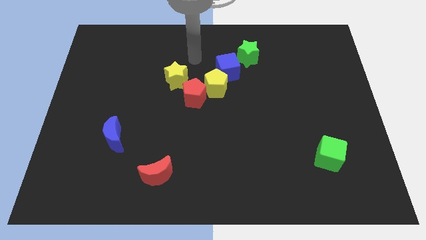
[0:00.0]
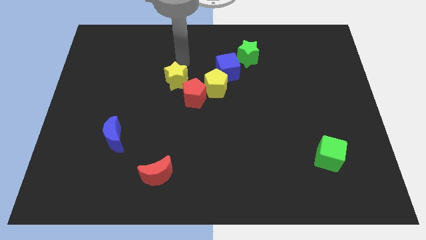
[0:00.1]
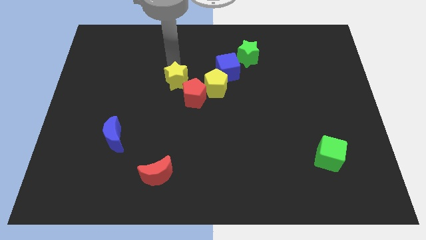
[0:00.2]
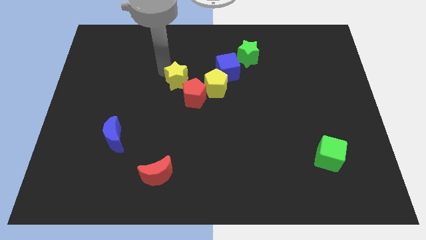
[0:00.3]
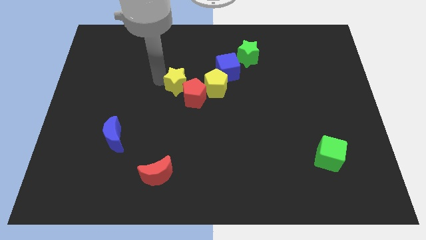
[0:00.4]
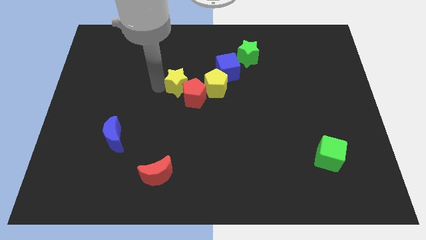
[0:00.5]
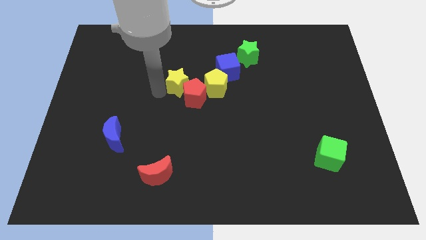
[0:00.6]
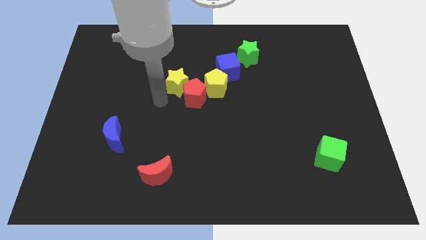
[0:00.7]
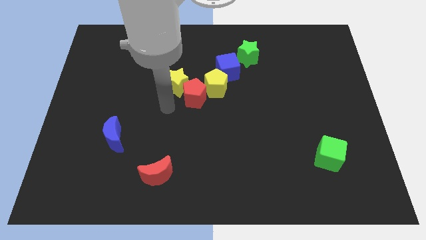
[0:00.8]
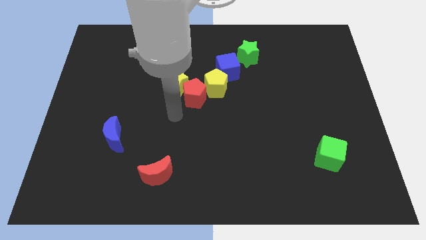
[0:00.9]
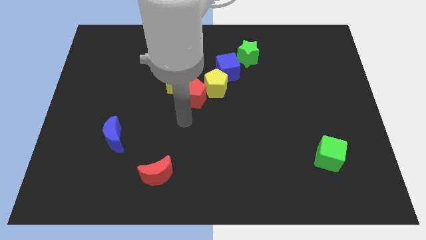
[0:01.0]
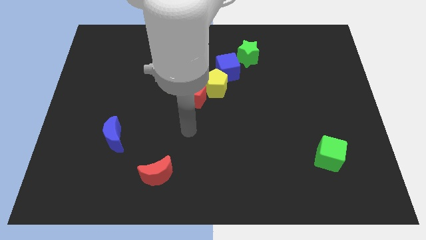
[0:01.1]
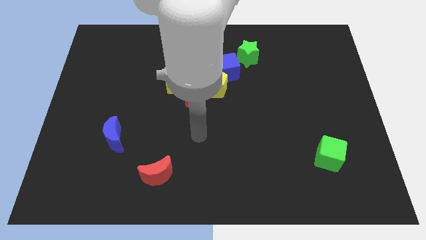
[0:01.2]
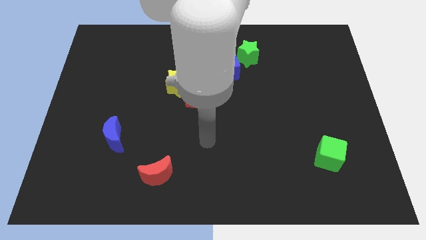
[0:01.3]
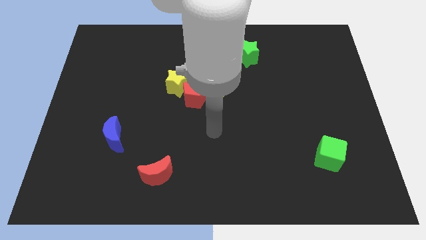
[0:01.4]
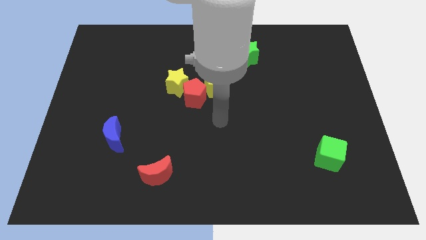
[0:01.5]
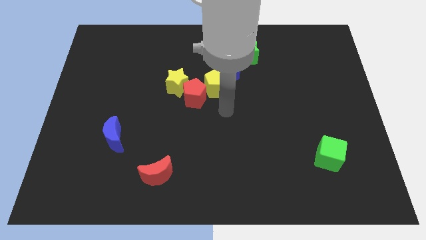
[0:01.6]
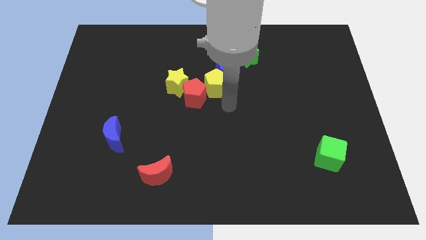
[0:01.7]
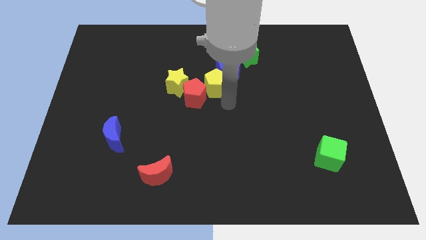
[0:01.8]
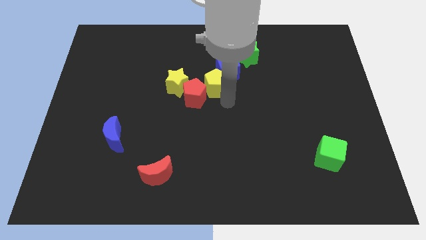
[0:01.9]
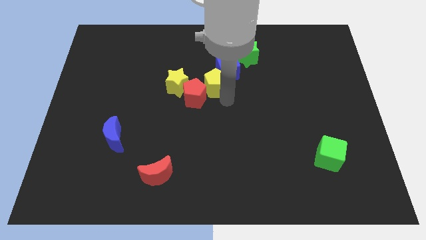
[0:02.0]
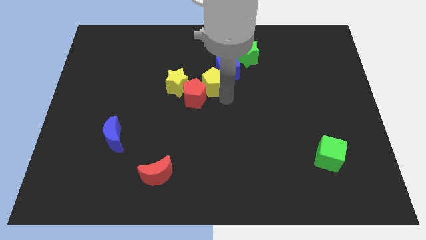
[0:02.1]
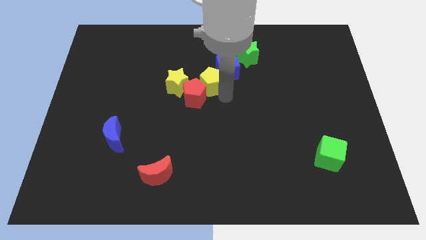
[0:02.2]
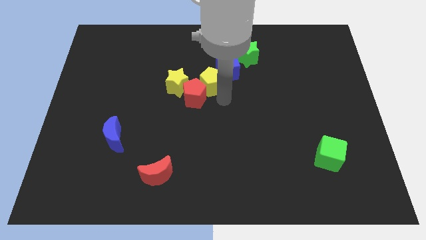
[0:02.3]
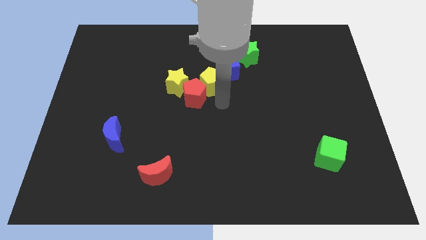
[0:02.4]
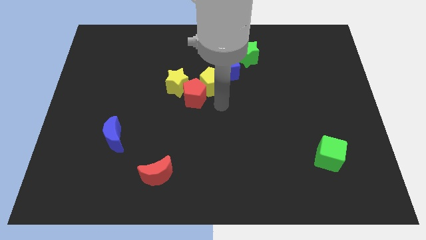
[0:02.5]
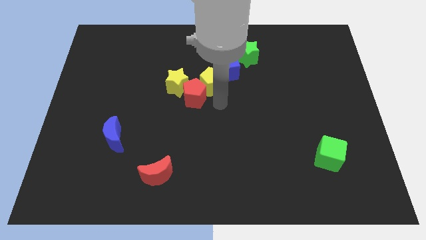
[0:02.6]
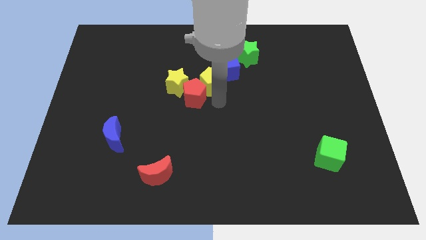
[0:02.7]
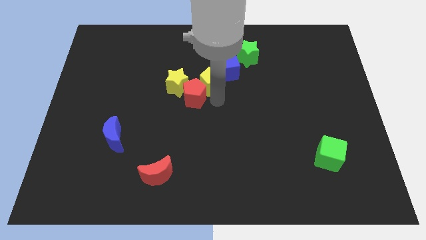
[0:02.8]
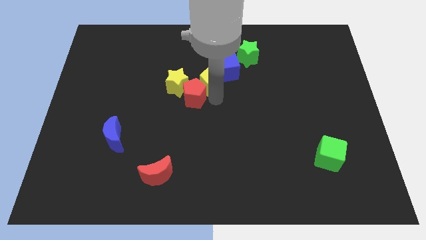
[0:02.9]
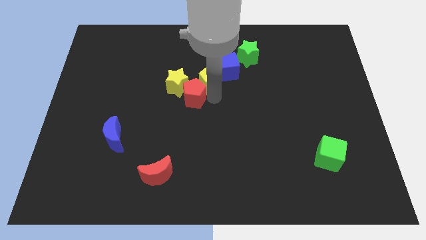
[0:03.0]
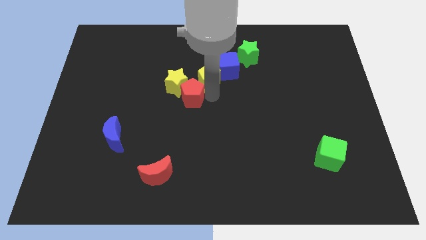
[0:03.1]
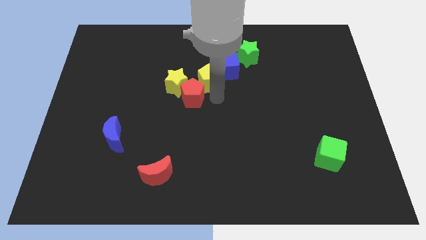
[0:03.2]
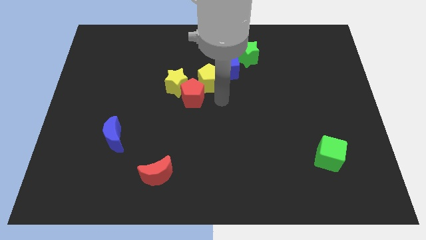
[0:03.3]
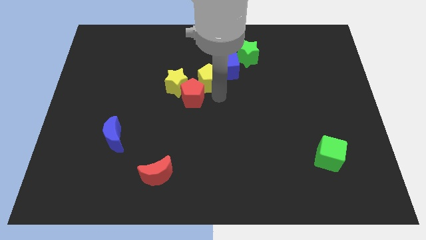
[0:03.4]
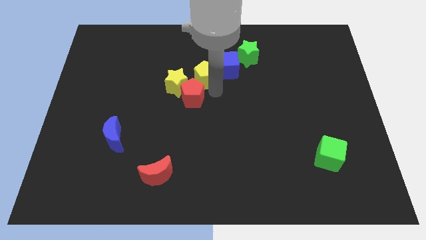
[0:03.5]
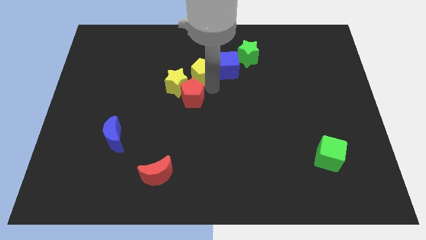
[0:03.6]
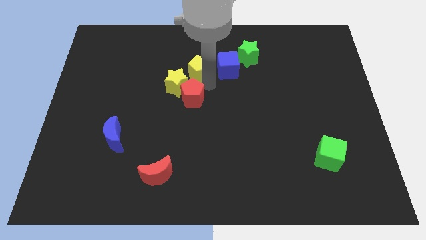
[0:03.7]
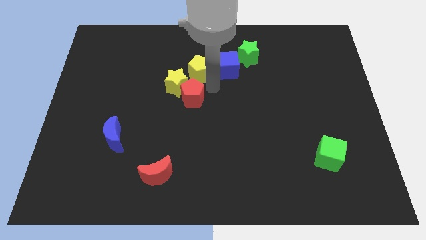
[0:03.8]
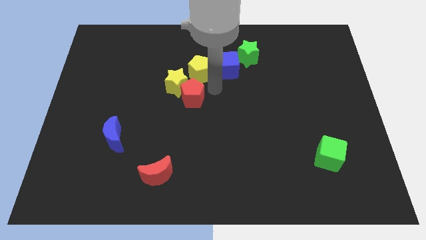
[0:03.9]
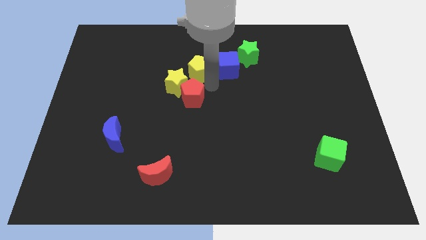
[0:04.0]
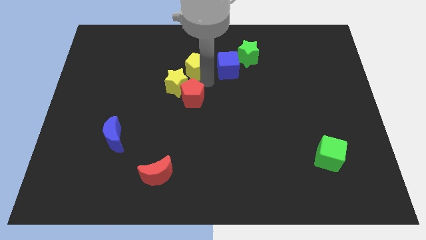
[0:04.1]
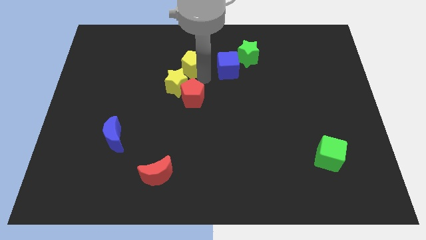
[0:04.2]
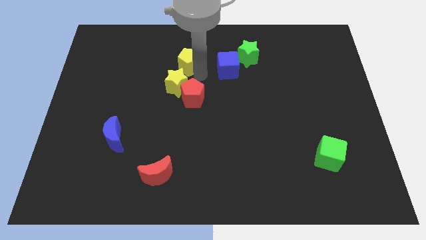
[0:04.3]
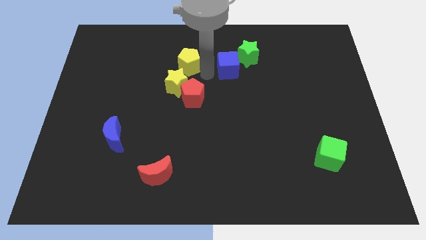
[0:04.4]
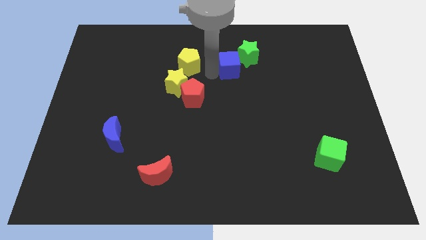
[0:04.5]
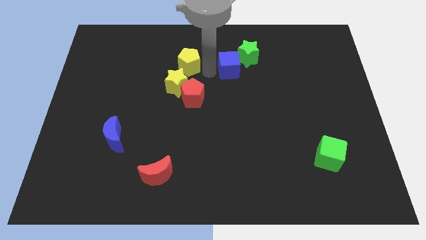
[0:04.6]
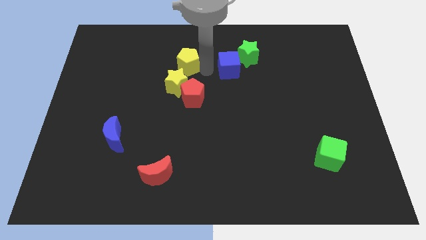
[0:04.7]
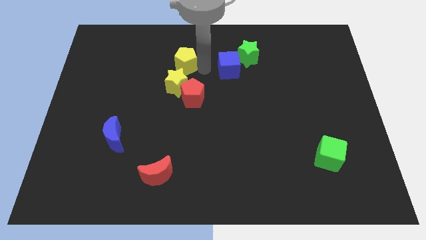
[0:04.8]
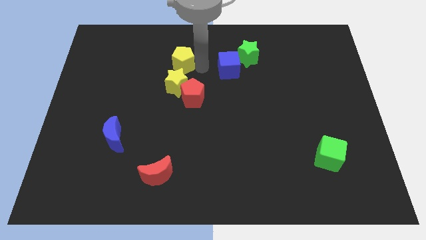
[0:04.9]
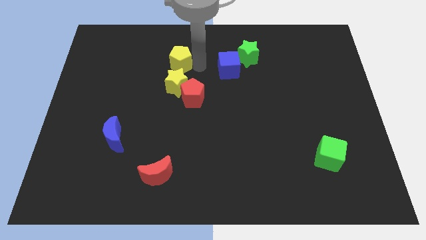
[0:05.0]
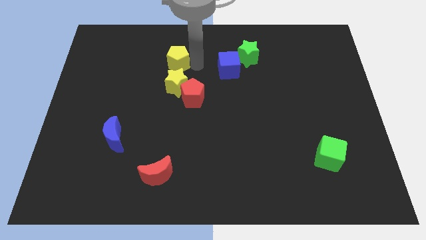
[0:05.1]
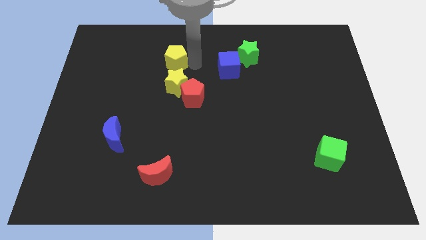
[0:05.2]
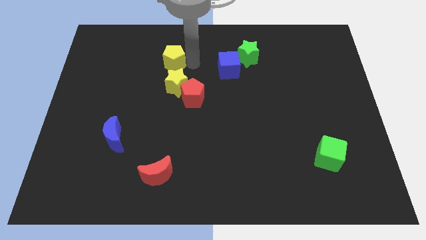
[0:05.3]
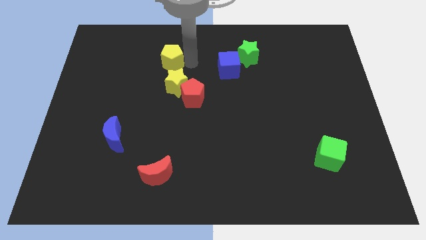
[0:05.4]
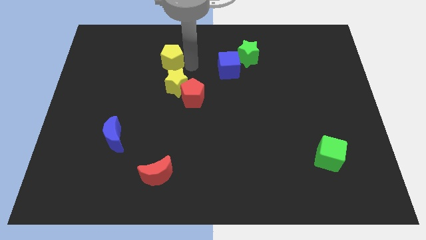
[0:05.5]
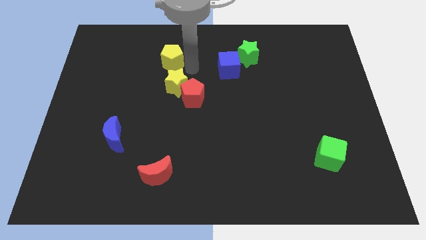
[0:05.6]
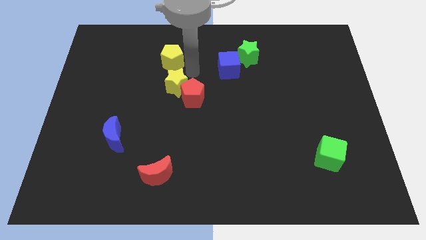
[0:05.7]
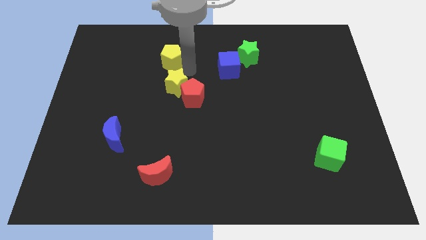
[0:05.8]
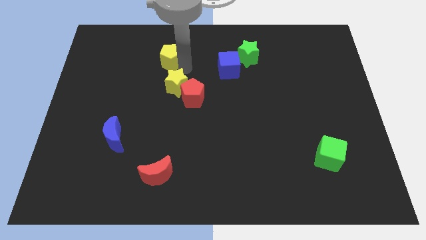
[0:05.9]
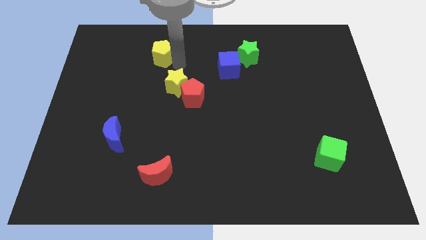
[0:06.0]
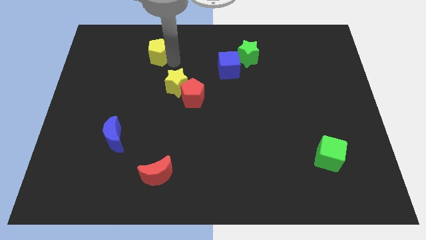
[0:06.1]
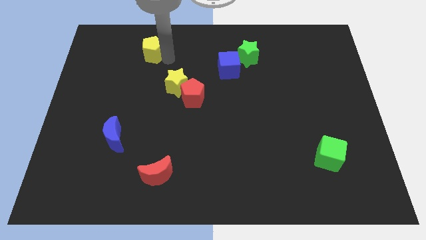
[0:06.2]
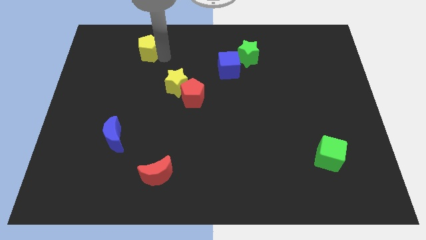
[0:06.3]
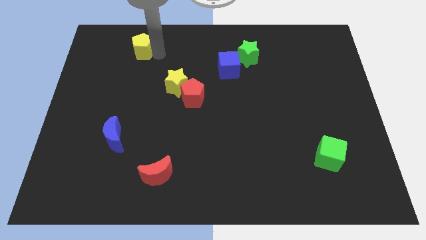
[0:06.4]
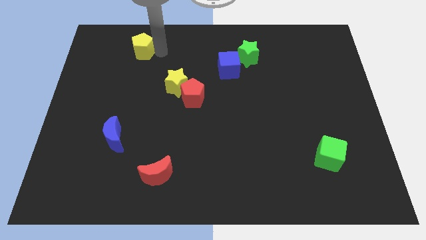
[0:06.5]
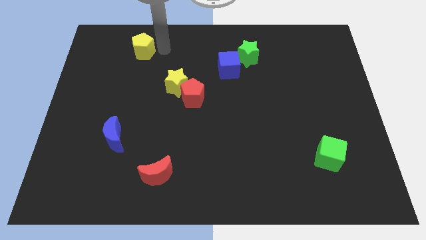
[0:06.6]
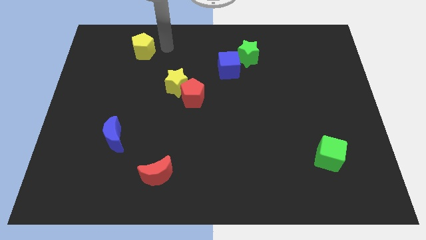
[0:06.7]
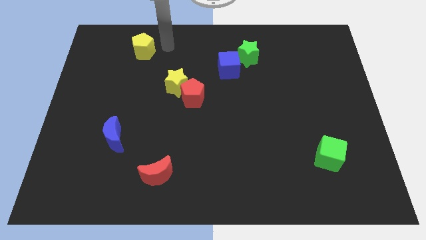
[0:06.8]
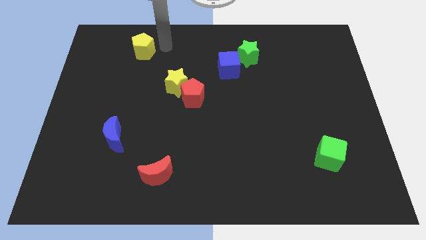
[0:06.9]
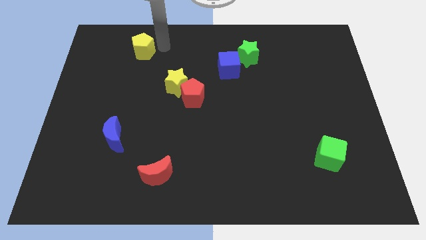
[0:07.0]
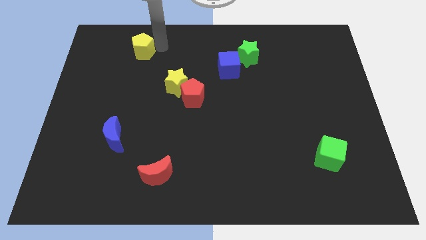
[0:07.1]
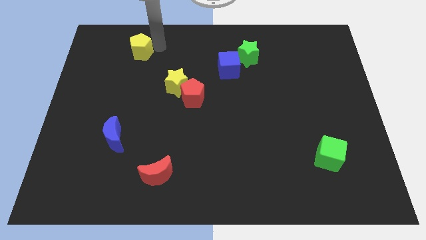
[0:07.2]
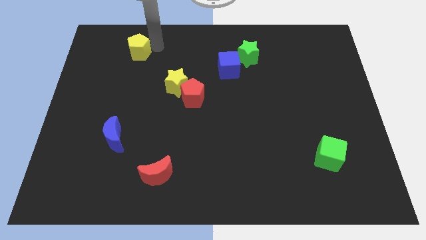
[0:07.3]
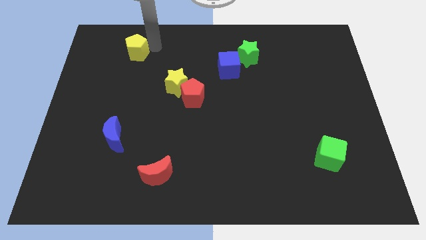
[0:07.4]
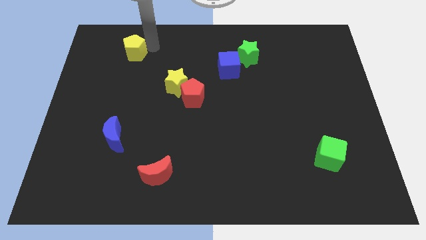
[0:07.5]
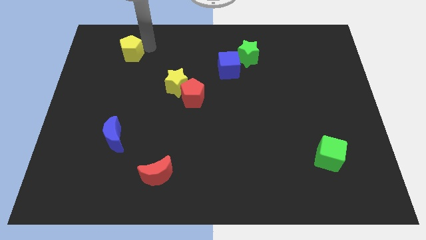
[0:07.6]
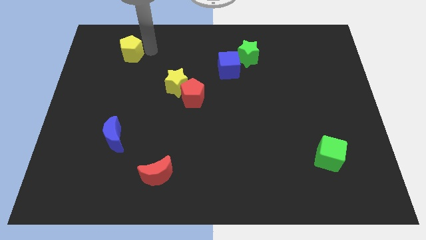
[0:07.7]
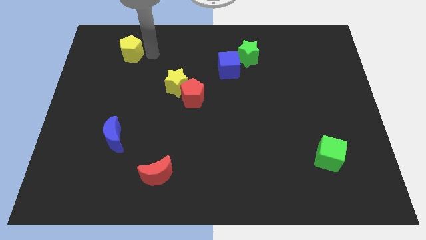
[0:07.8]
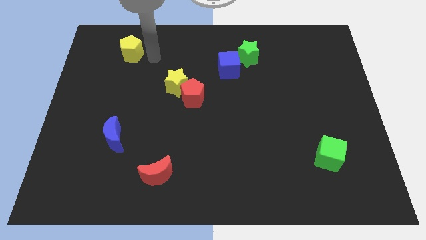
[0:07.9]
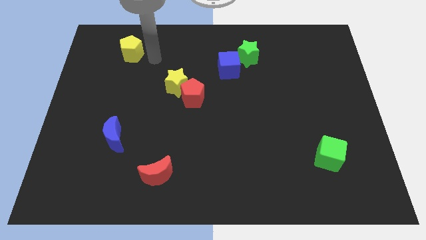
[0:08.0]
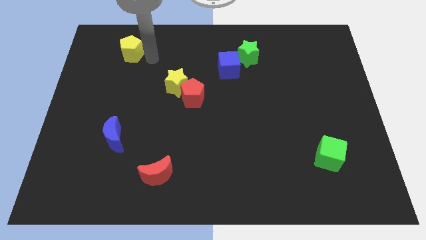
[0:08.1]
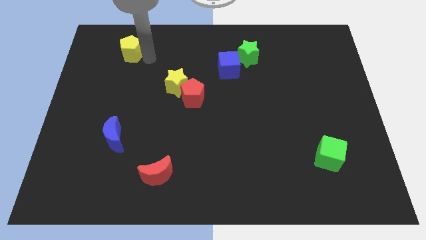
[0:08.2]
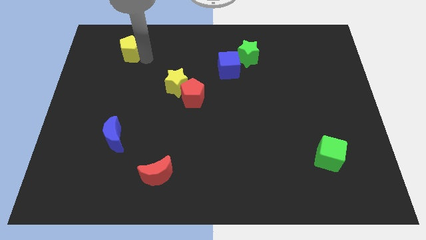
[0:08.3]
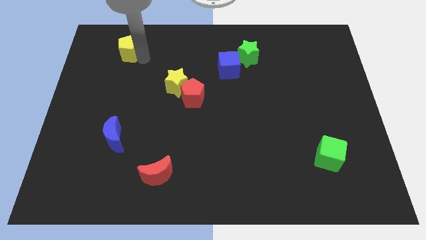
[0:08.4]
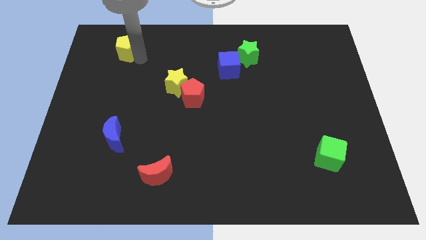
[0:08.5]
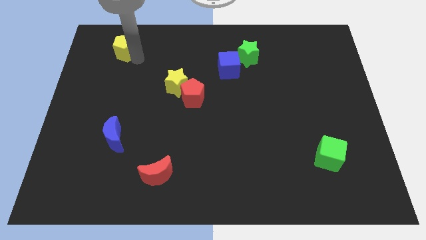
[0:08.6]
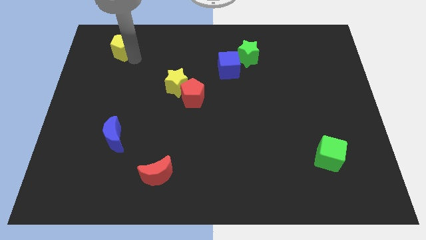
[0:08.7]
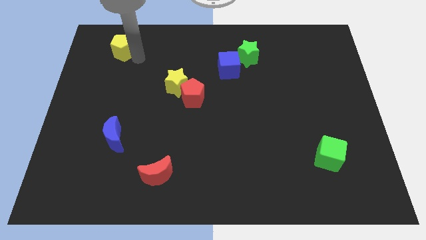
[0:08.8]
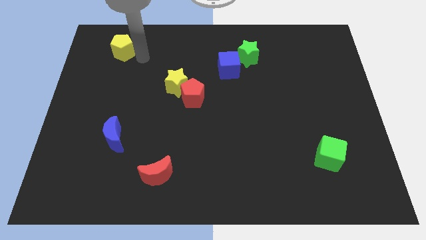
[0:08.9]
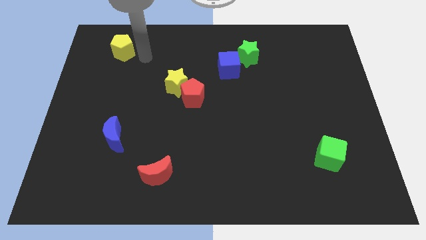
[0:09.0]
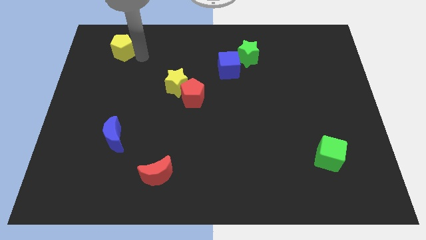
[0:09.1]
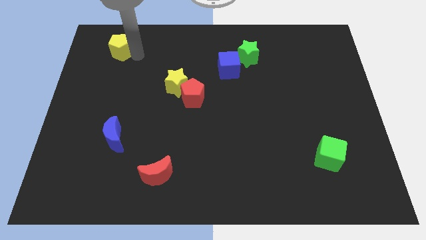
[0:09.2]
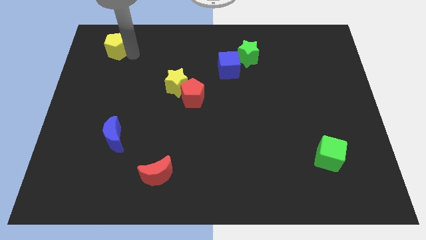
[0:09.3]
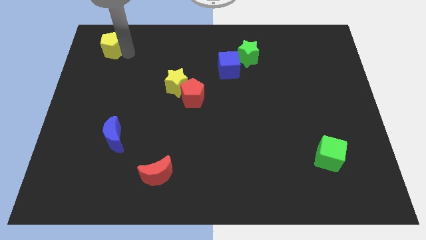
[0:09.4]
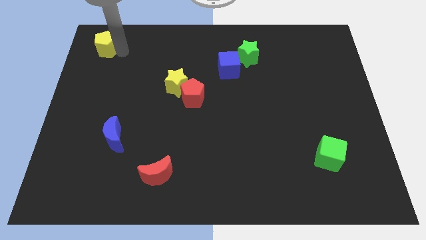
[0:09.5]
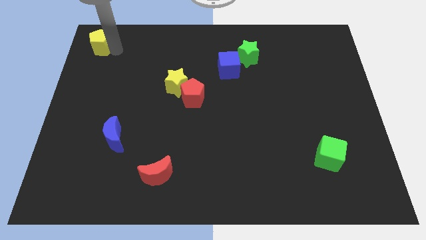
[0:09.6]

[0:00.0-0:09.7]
slide the yellow pentagon to the top left corner
